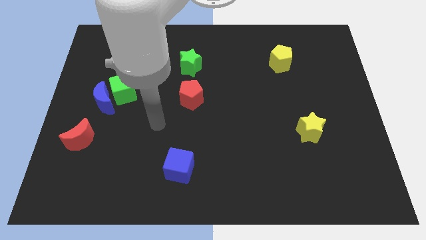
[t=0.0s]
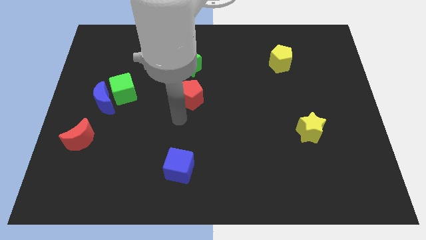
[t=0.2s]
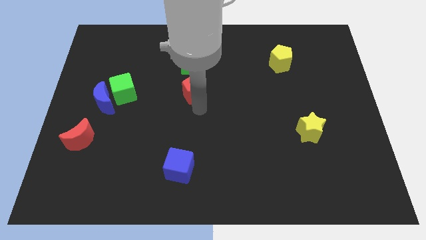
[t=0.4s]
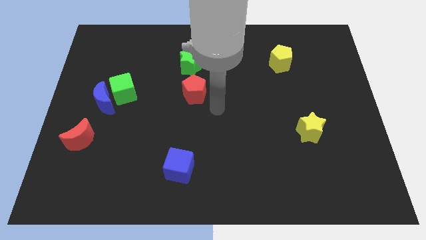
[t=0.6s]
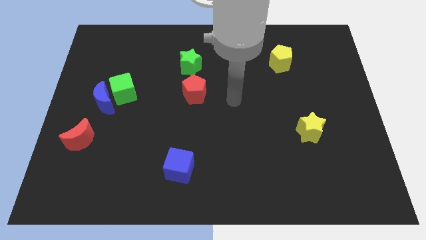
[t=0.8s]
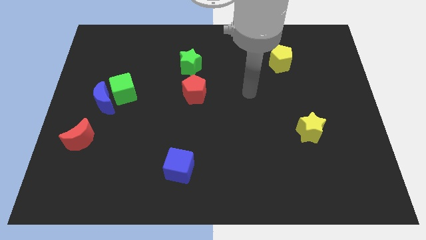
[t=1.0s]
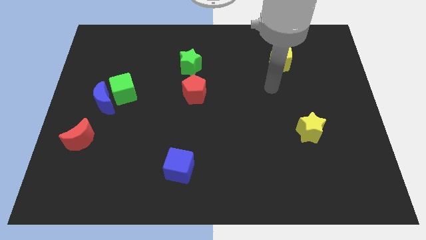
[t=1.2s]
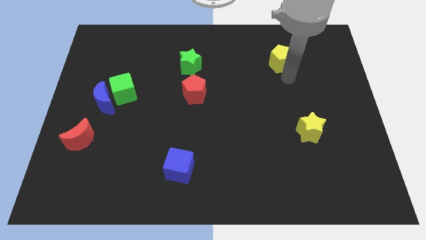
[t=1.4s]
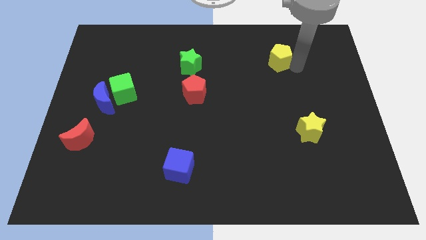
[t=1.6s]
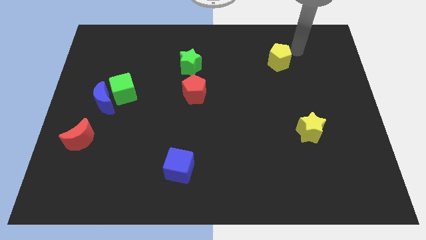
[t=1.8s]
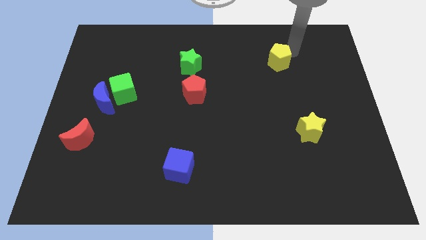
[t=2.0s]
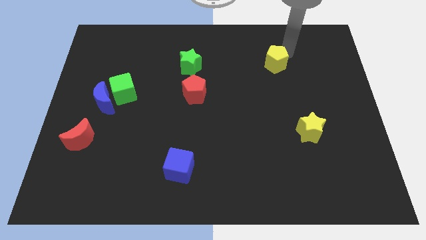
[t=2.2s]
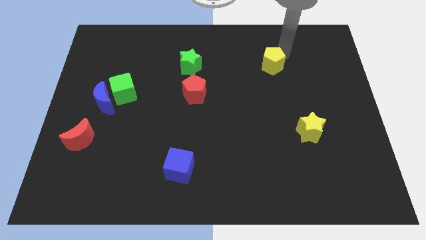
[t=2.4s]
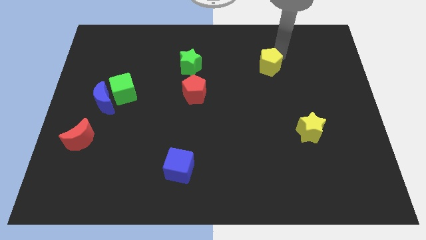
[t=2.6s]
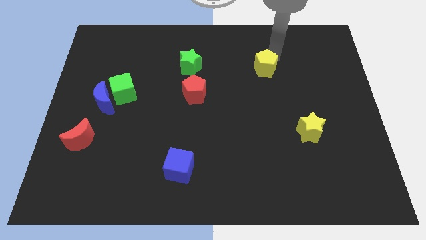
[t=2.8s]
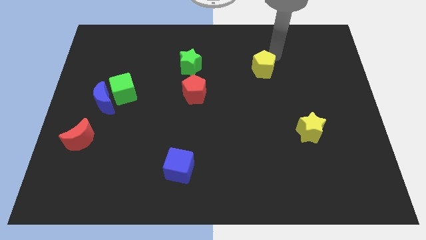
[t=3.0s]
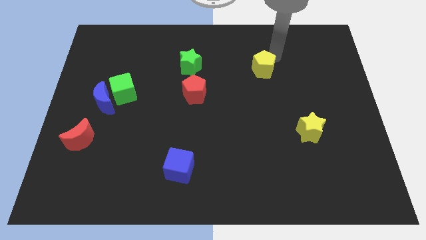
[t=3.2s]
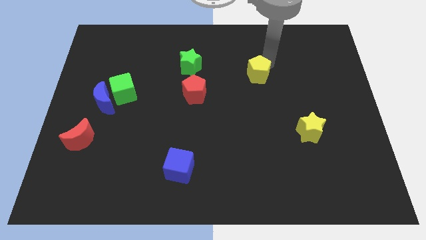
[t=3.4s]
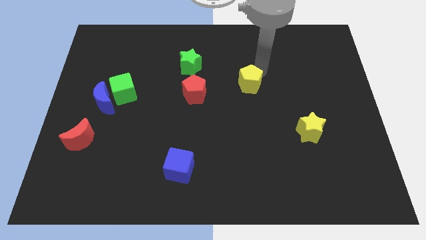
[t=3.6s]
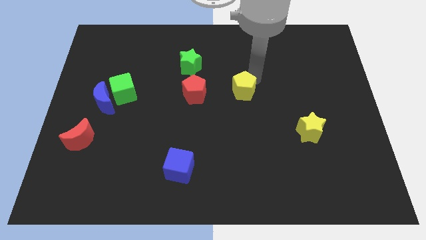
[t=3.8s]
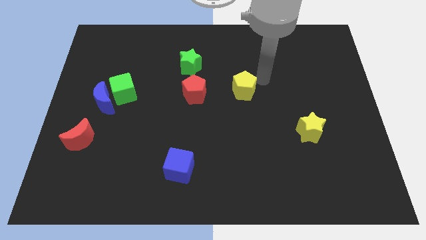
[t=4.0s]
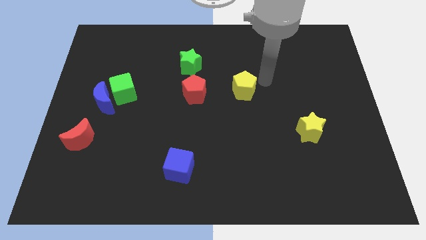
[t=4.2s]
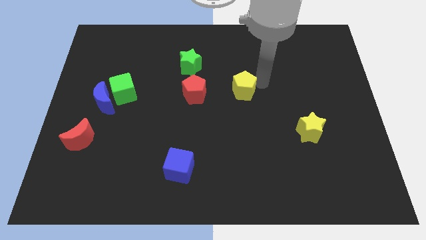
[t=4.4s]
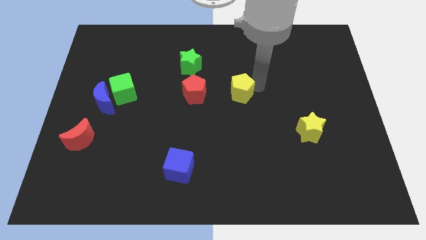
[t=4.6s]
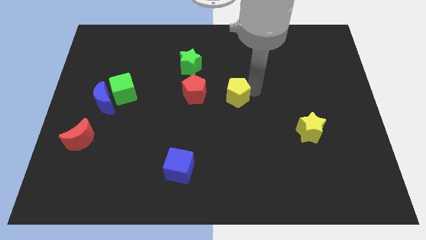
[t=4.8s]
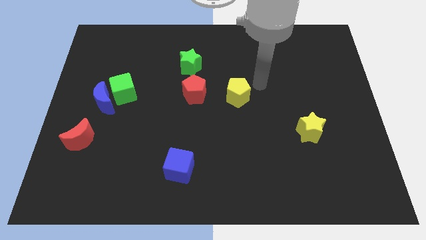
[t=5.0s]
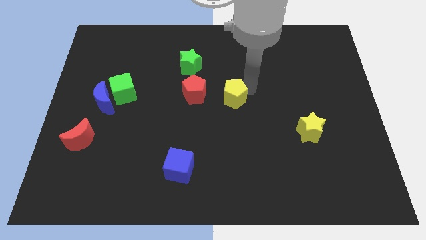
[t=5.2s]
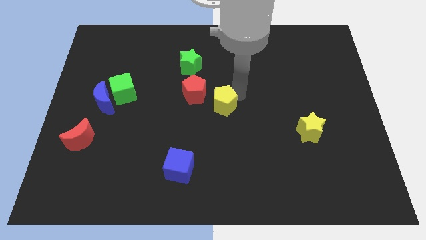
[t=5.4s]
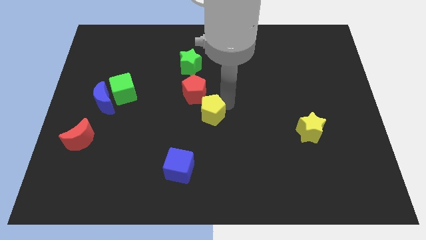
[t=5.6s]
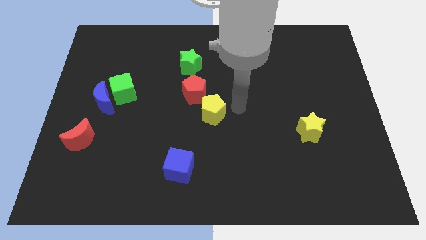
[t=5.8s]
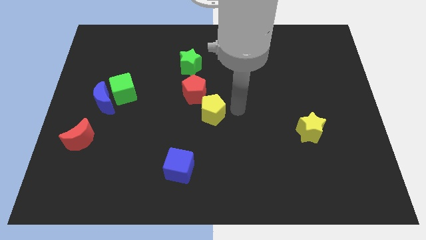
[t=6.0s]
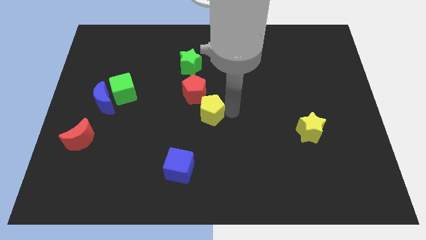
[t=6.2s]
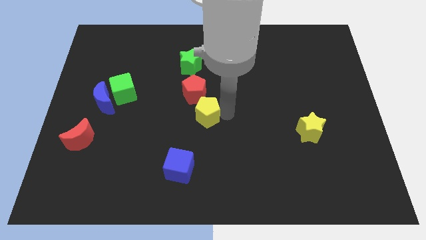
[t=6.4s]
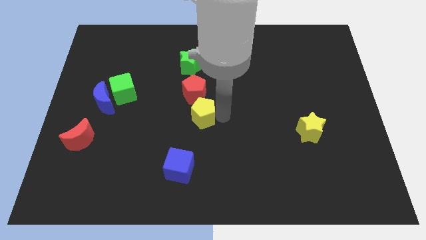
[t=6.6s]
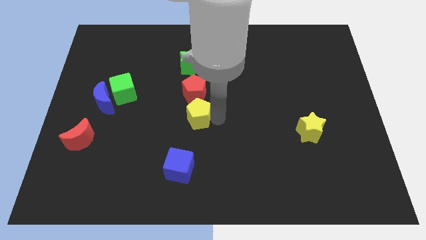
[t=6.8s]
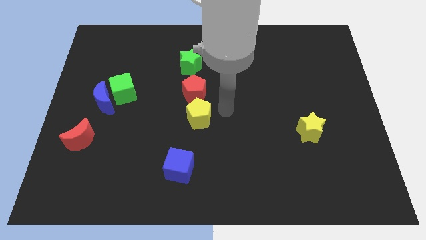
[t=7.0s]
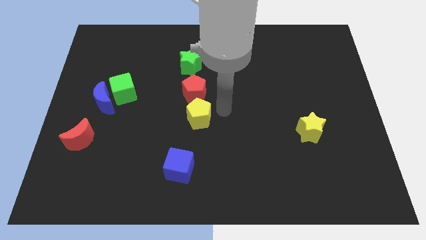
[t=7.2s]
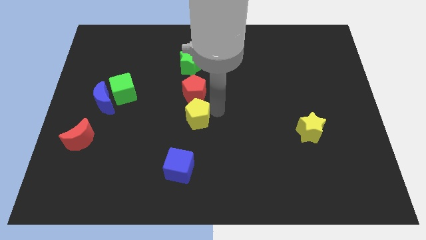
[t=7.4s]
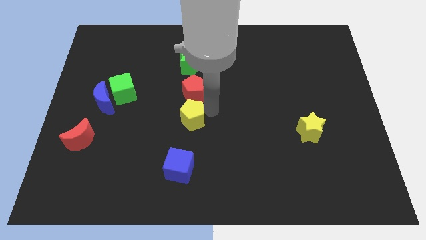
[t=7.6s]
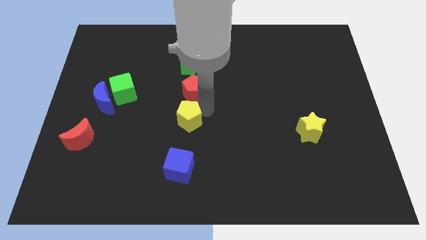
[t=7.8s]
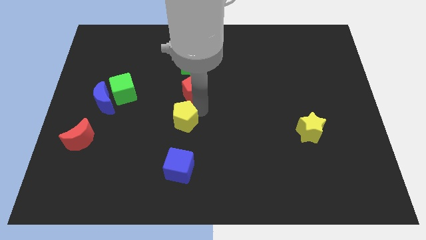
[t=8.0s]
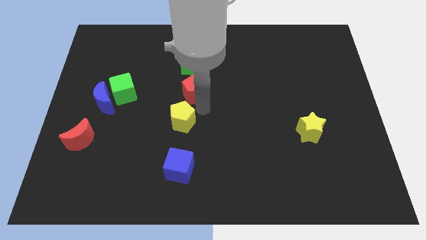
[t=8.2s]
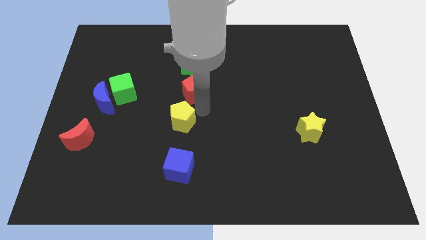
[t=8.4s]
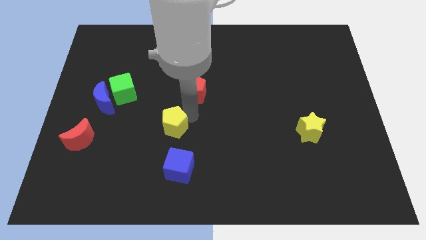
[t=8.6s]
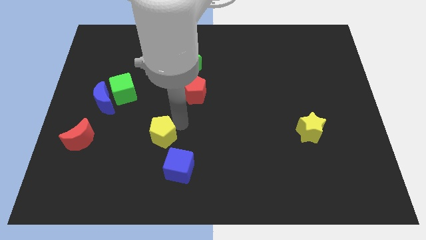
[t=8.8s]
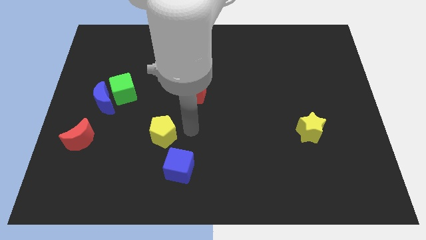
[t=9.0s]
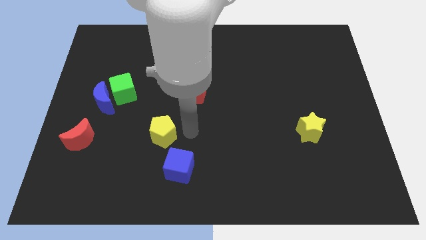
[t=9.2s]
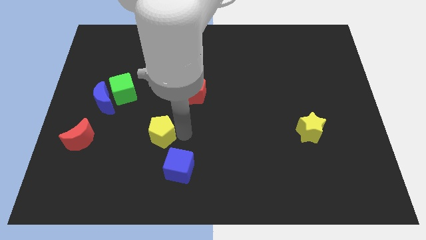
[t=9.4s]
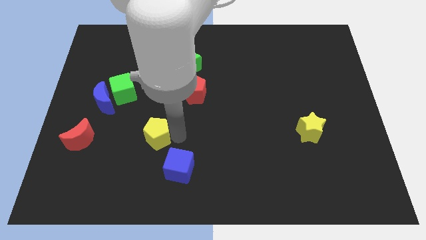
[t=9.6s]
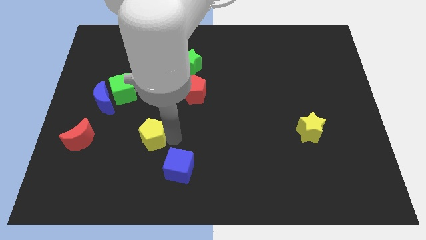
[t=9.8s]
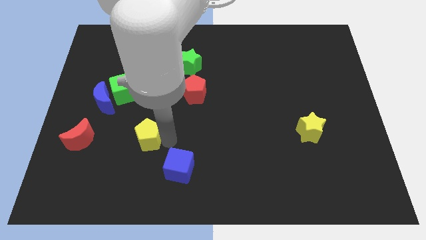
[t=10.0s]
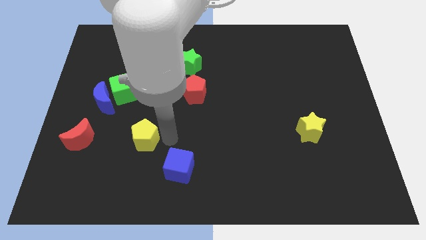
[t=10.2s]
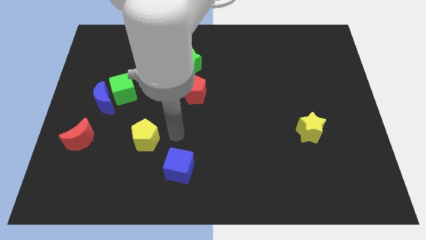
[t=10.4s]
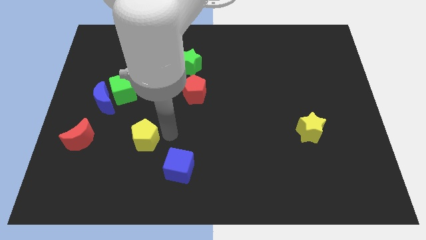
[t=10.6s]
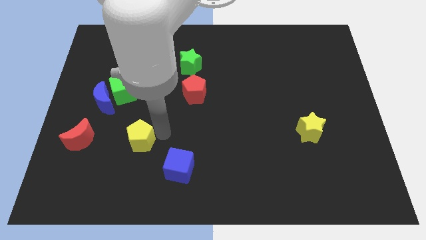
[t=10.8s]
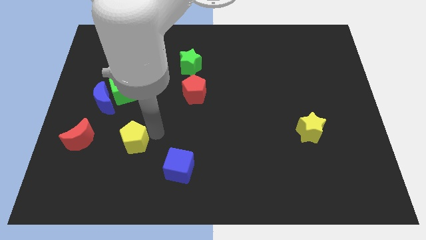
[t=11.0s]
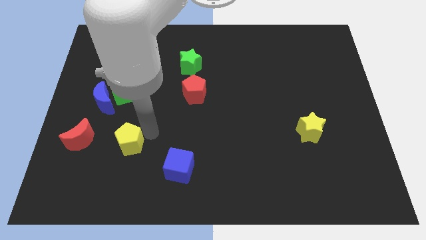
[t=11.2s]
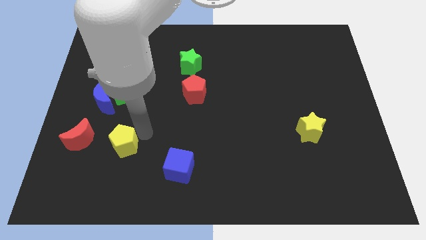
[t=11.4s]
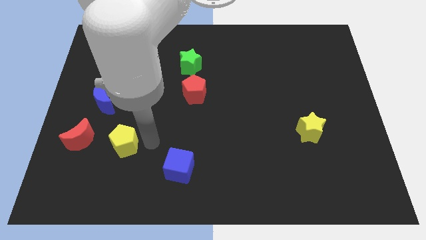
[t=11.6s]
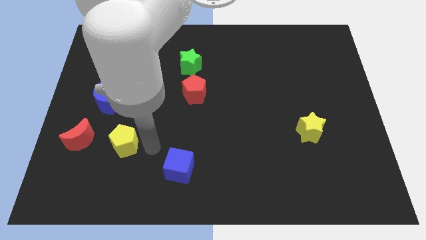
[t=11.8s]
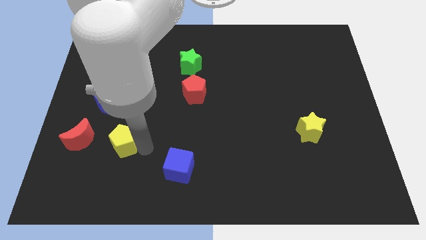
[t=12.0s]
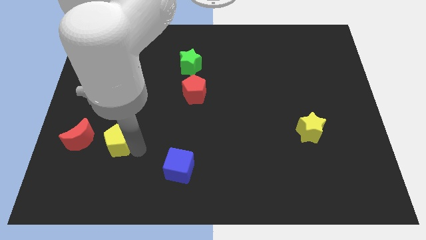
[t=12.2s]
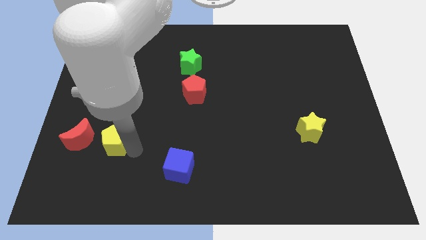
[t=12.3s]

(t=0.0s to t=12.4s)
push the yellow pentagon to the bottom side of the blue moon

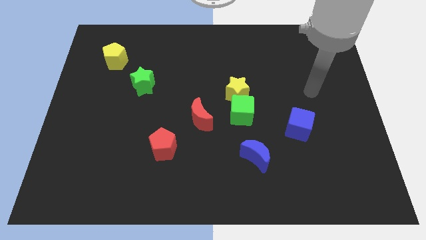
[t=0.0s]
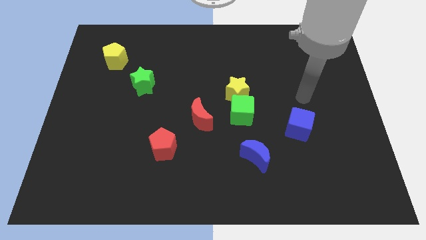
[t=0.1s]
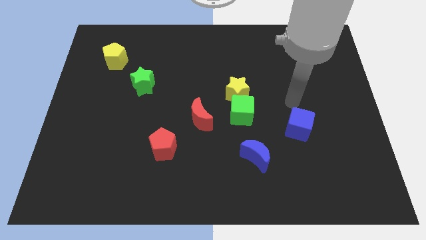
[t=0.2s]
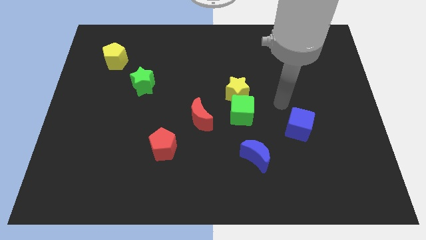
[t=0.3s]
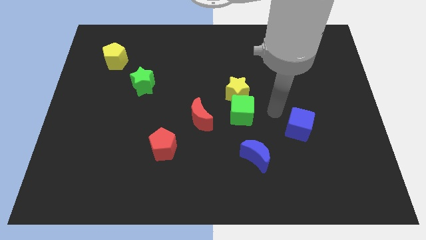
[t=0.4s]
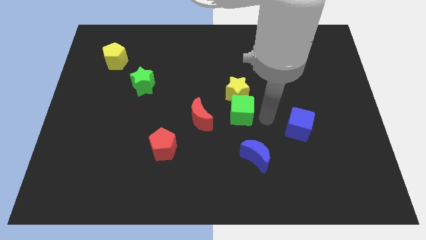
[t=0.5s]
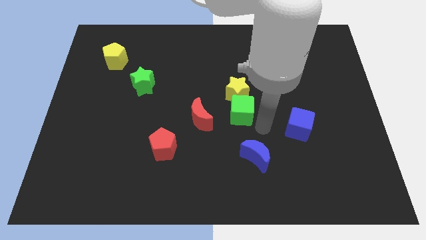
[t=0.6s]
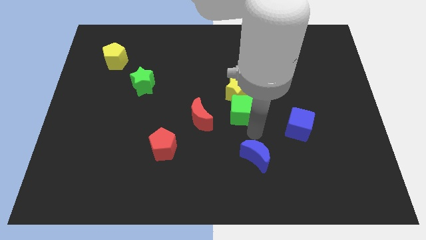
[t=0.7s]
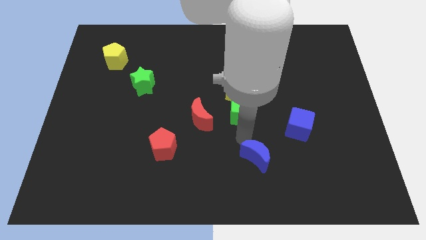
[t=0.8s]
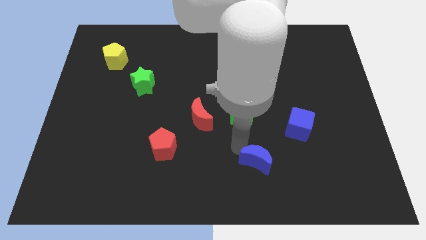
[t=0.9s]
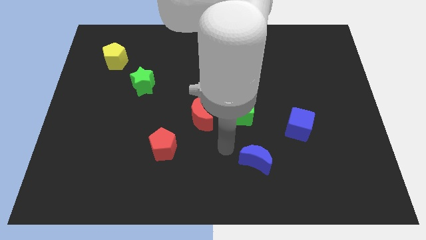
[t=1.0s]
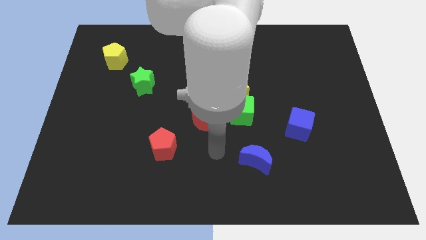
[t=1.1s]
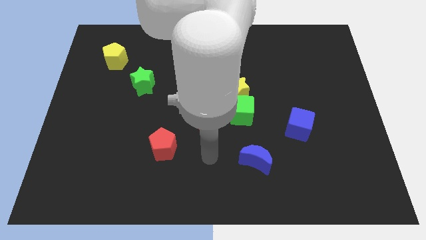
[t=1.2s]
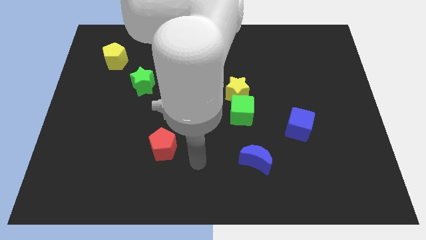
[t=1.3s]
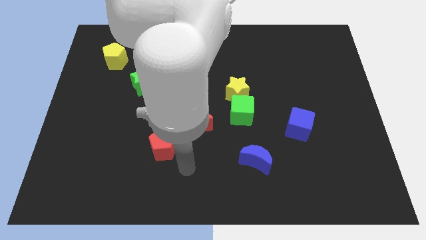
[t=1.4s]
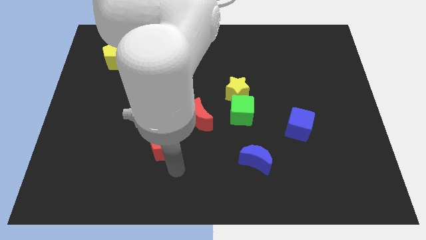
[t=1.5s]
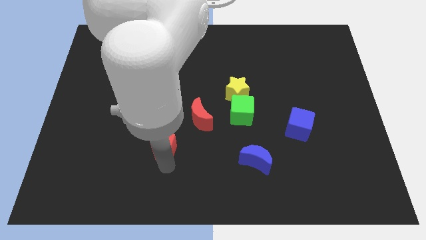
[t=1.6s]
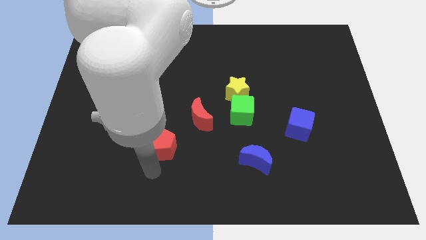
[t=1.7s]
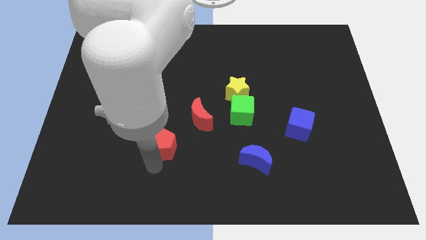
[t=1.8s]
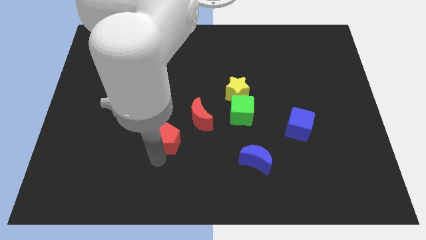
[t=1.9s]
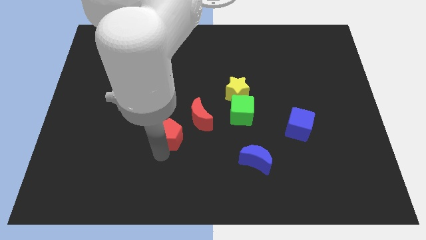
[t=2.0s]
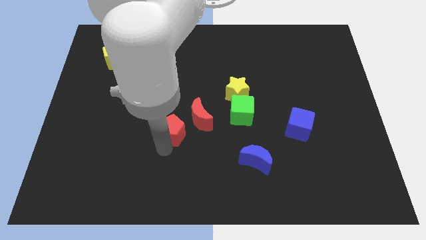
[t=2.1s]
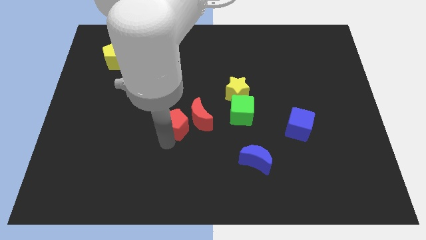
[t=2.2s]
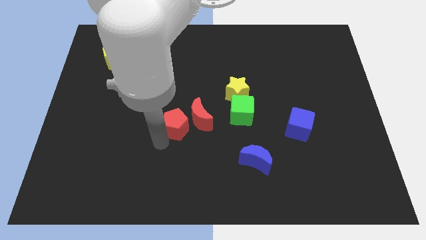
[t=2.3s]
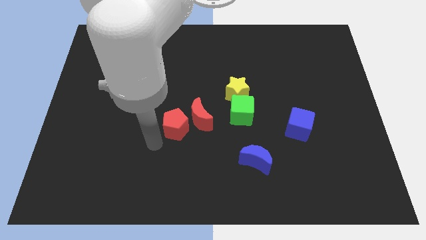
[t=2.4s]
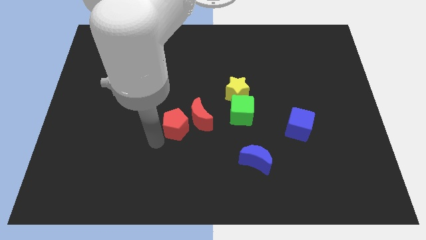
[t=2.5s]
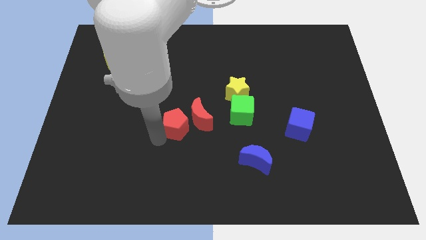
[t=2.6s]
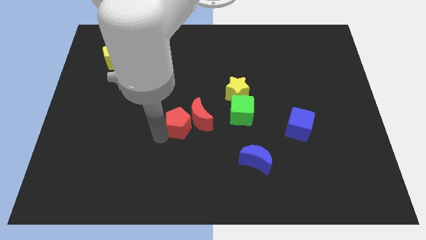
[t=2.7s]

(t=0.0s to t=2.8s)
put the red pentagon to the left of the green cube
